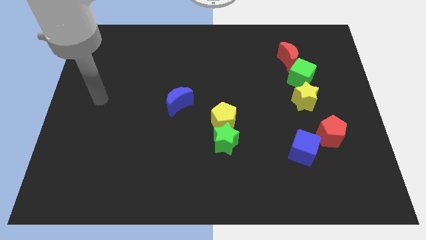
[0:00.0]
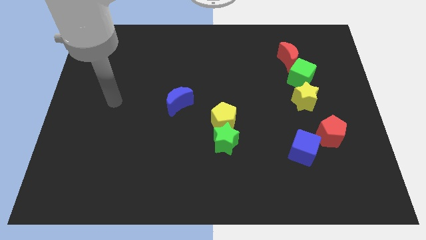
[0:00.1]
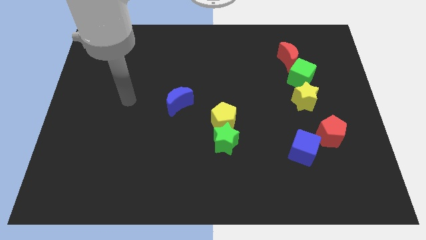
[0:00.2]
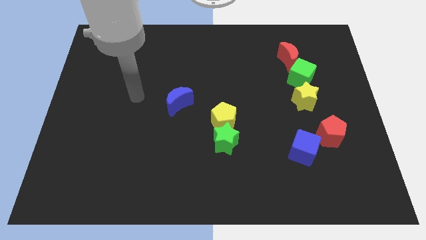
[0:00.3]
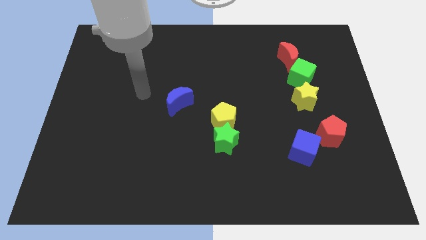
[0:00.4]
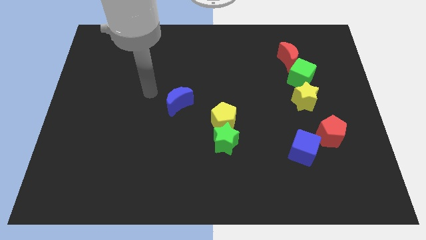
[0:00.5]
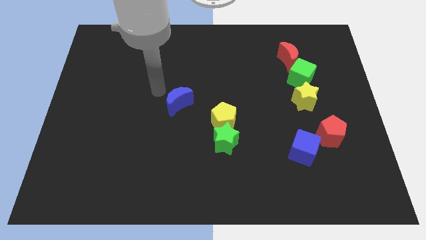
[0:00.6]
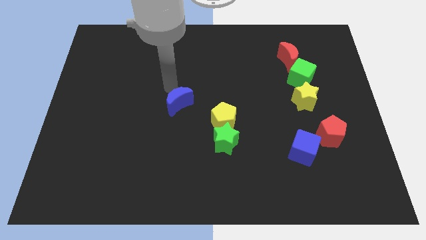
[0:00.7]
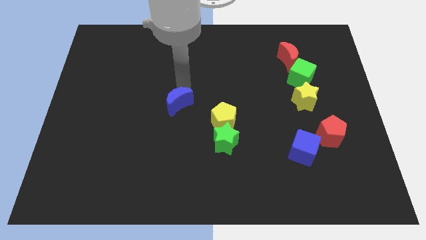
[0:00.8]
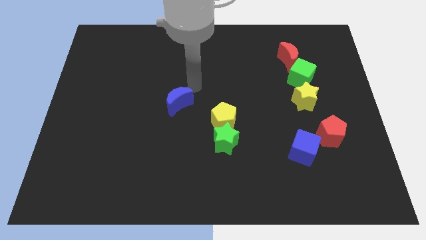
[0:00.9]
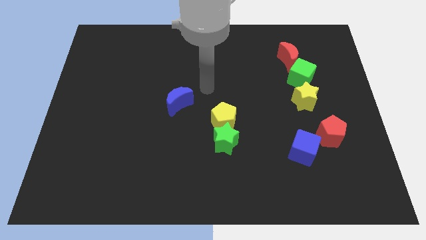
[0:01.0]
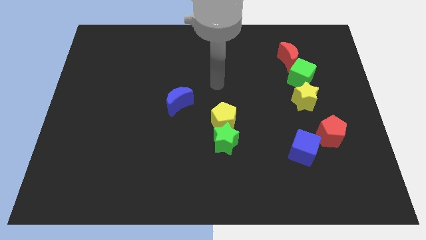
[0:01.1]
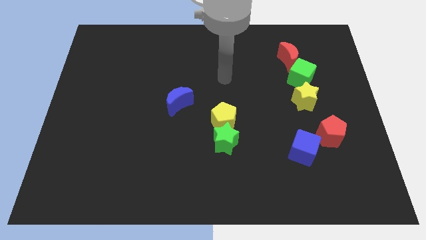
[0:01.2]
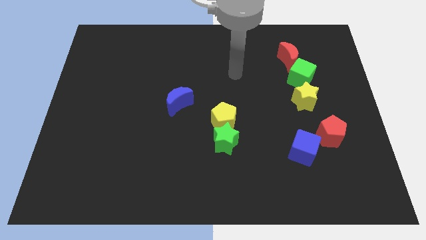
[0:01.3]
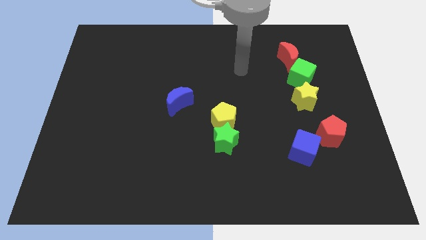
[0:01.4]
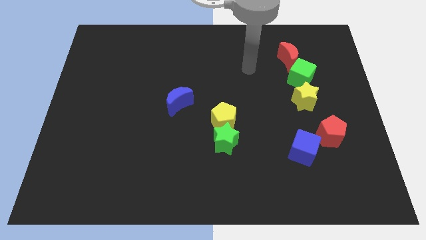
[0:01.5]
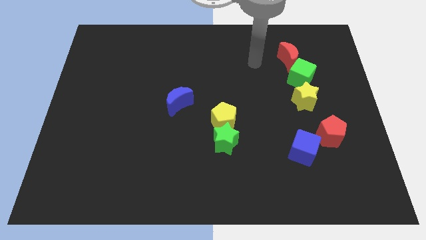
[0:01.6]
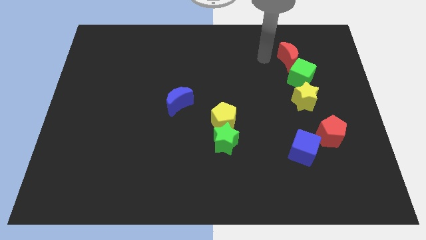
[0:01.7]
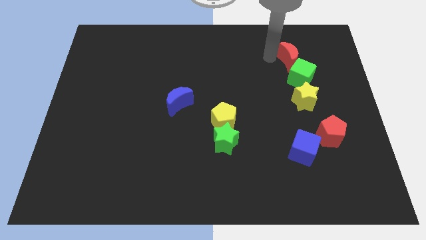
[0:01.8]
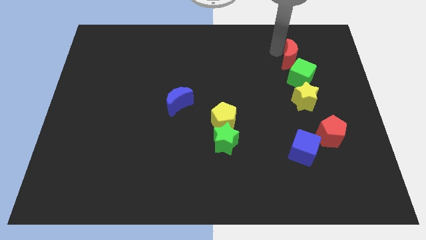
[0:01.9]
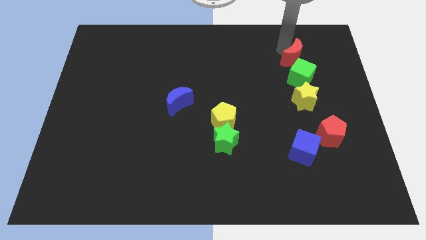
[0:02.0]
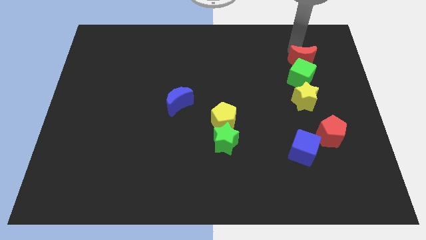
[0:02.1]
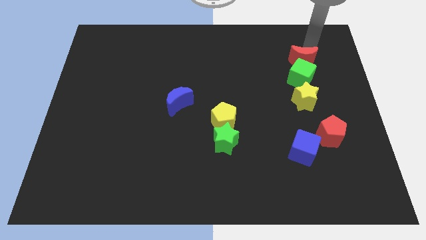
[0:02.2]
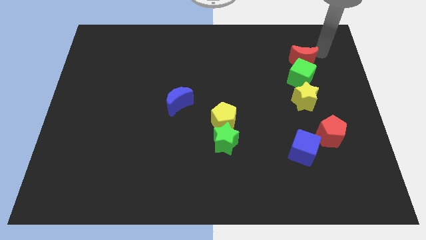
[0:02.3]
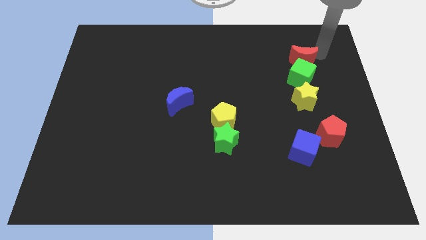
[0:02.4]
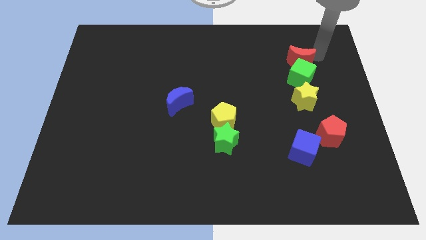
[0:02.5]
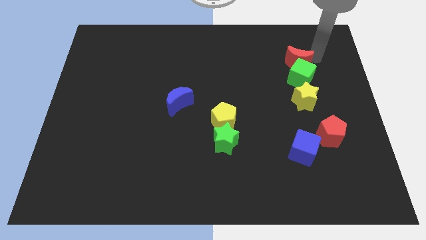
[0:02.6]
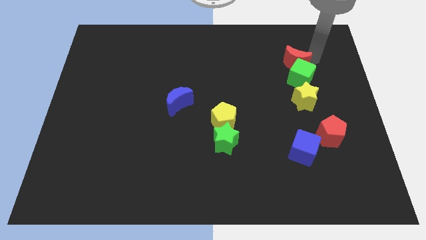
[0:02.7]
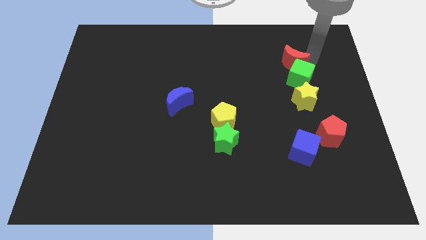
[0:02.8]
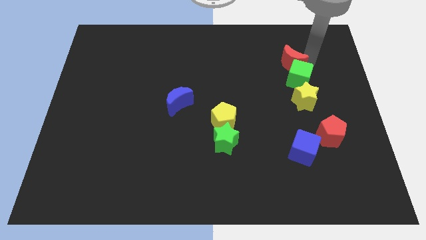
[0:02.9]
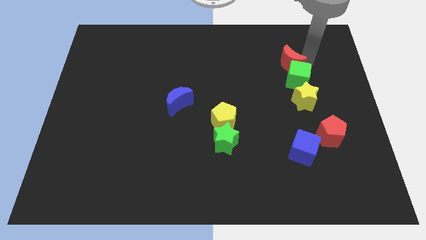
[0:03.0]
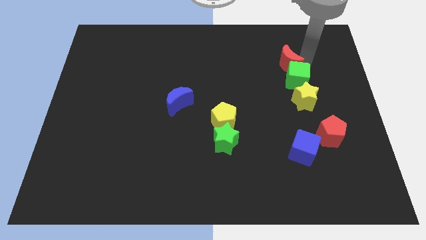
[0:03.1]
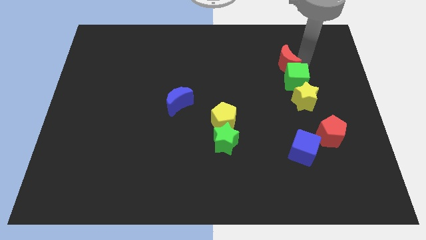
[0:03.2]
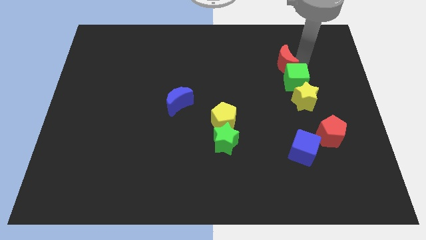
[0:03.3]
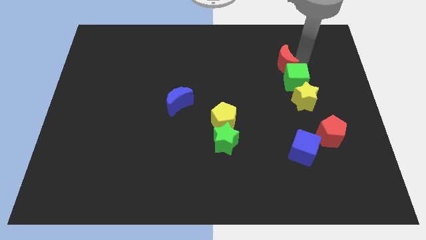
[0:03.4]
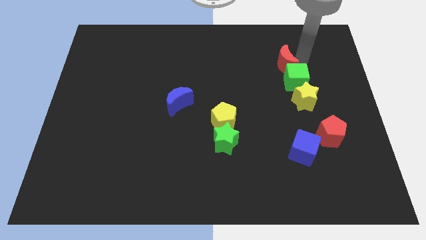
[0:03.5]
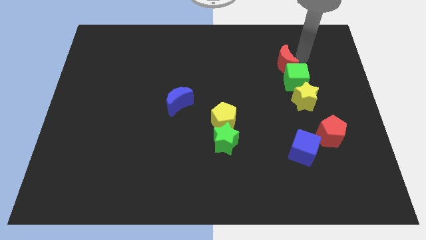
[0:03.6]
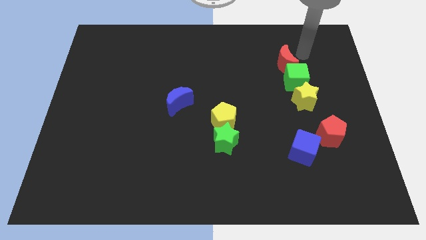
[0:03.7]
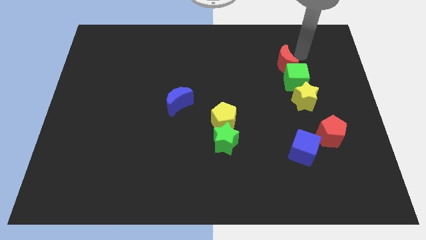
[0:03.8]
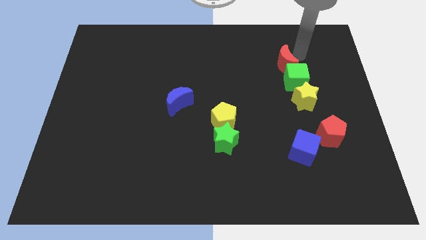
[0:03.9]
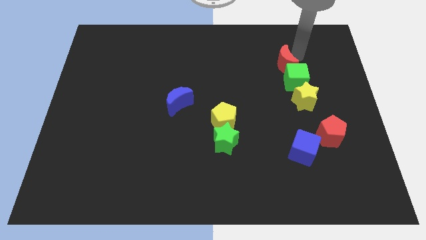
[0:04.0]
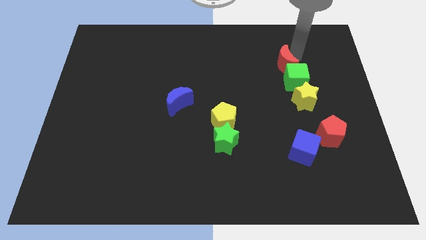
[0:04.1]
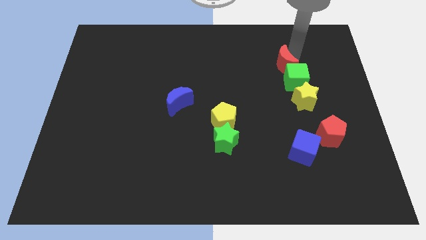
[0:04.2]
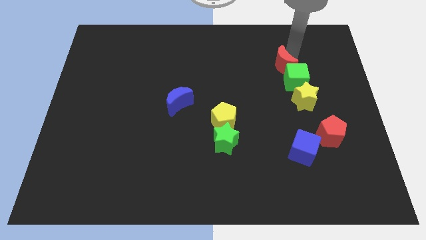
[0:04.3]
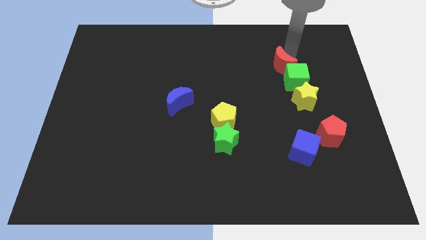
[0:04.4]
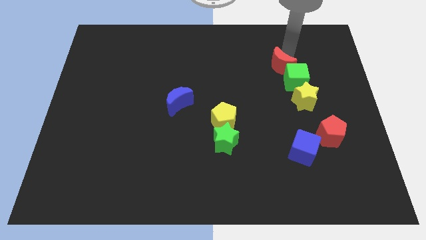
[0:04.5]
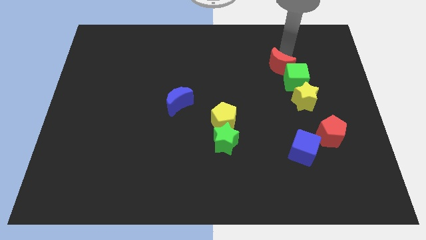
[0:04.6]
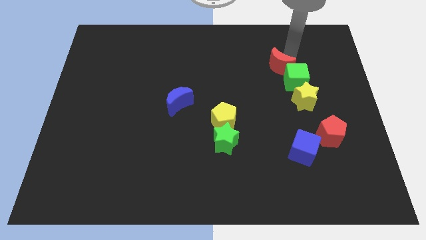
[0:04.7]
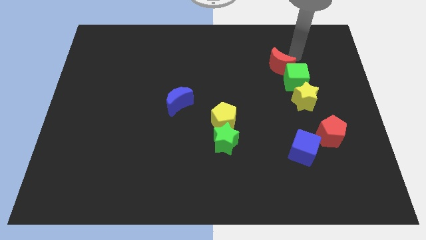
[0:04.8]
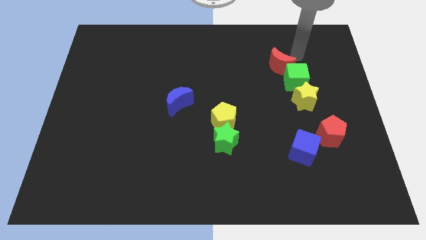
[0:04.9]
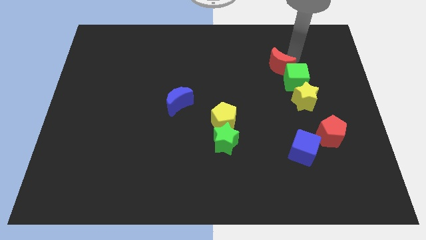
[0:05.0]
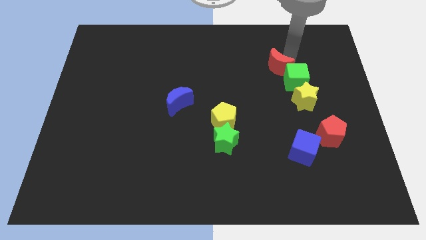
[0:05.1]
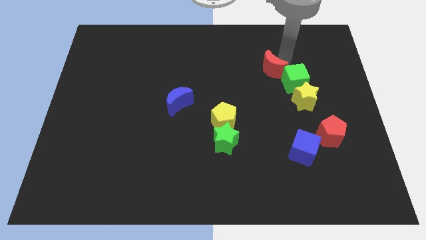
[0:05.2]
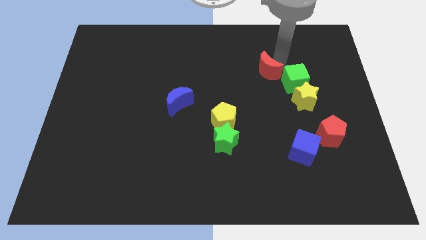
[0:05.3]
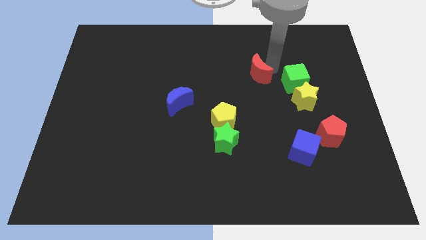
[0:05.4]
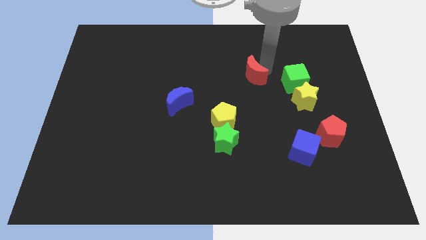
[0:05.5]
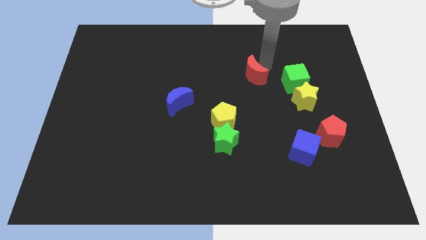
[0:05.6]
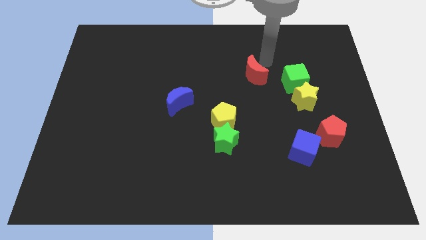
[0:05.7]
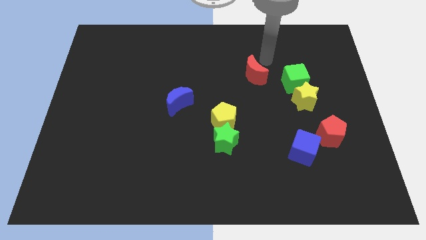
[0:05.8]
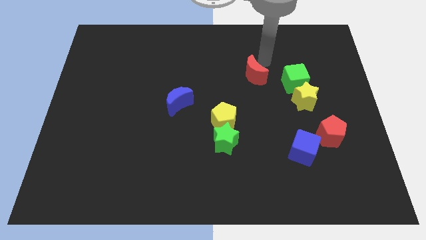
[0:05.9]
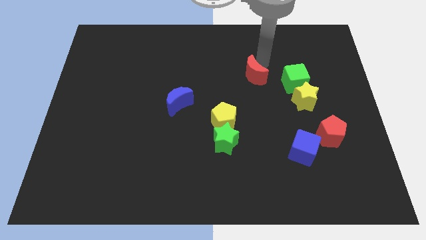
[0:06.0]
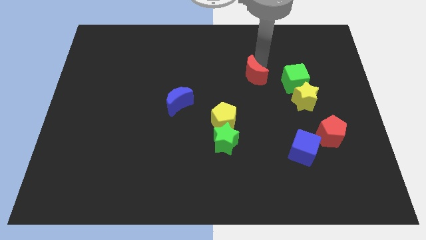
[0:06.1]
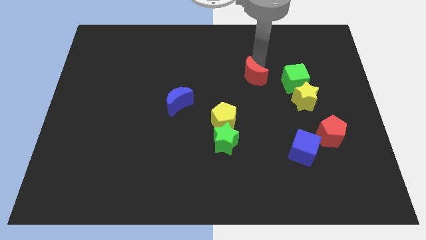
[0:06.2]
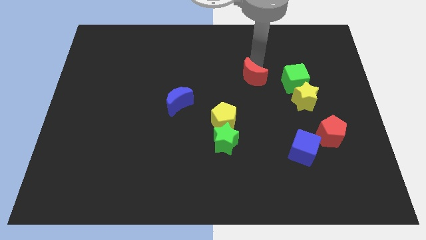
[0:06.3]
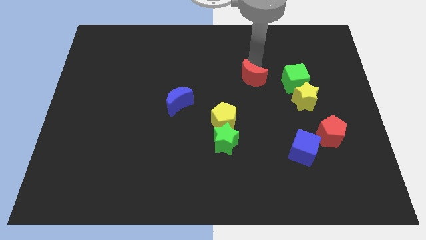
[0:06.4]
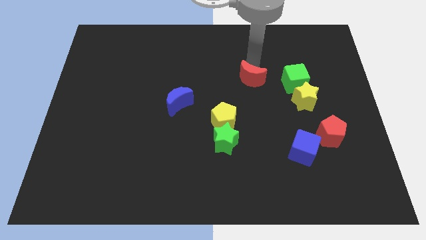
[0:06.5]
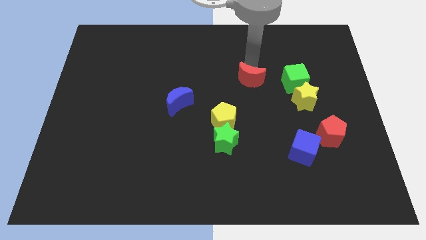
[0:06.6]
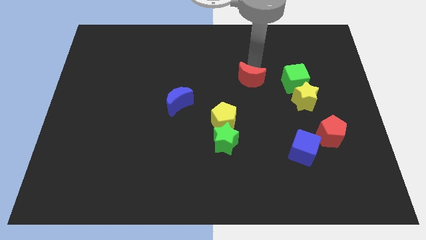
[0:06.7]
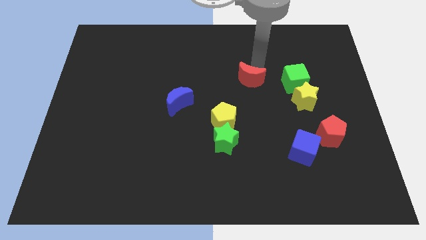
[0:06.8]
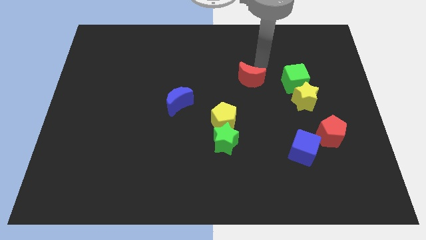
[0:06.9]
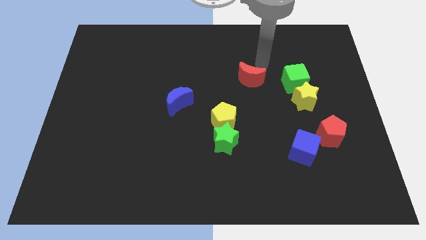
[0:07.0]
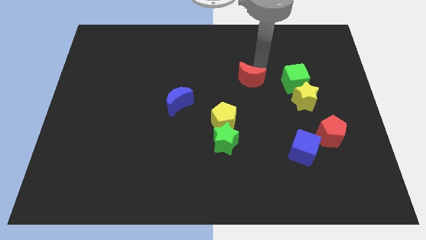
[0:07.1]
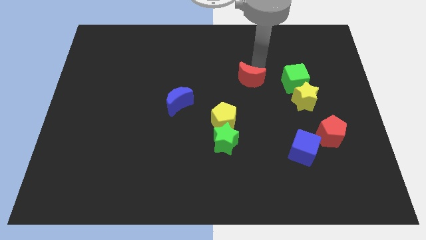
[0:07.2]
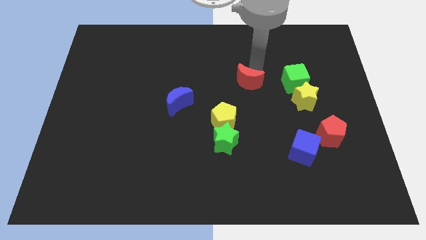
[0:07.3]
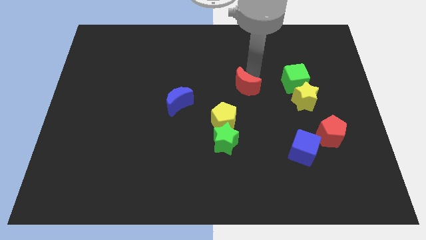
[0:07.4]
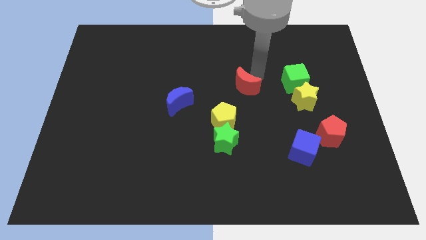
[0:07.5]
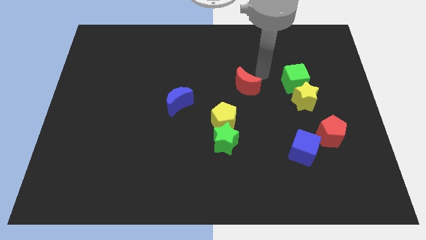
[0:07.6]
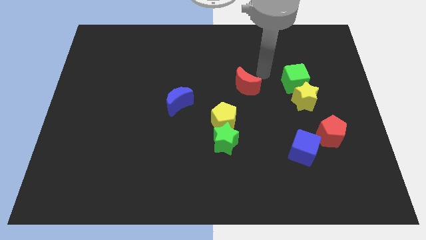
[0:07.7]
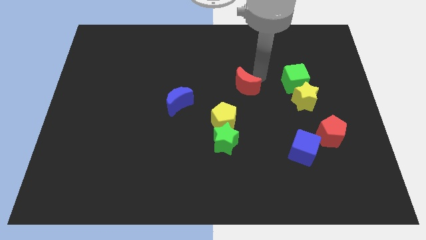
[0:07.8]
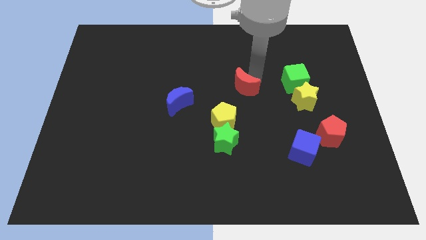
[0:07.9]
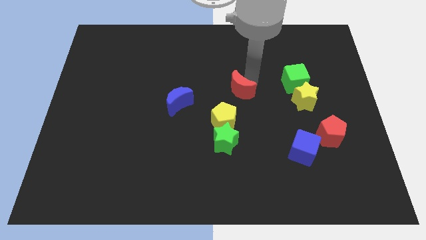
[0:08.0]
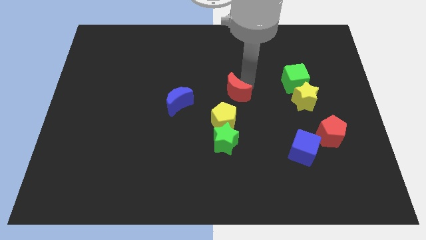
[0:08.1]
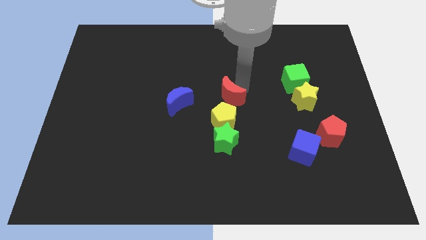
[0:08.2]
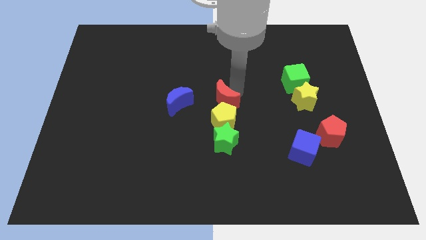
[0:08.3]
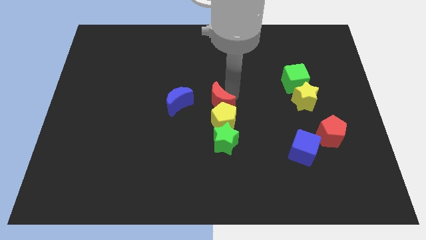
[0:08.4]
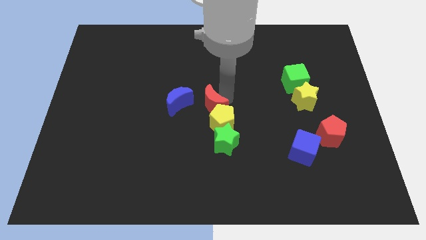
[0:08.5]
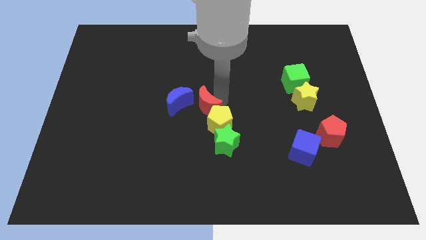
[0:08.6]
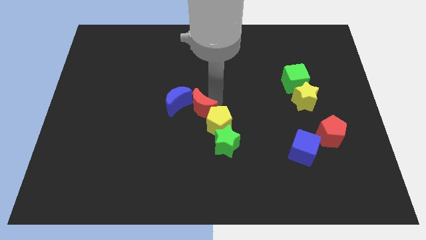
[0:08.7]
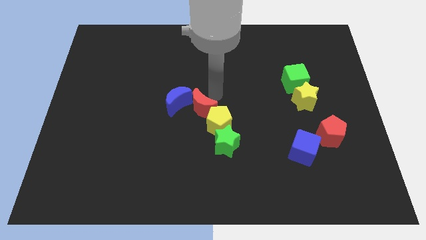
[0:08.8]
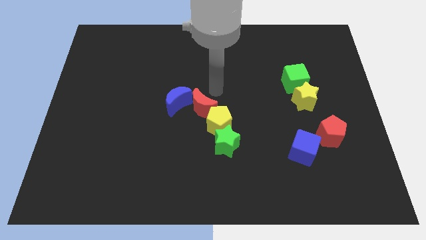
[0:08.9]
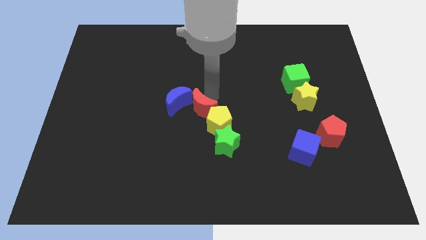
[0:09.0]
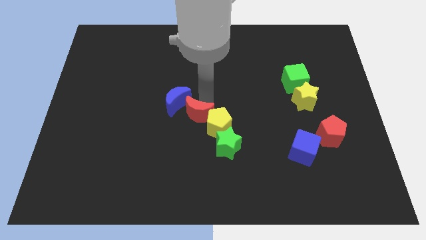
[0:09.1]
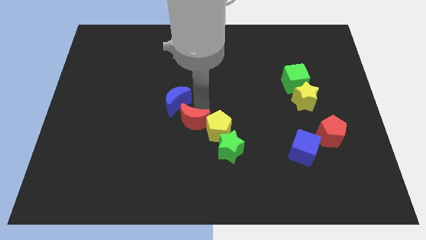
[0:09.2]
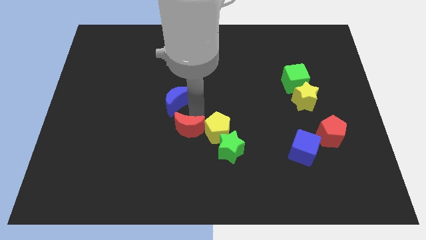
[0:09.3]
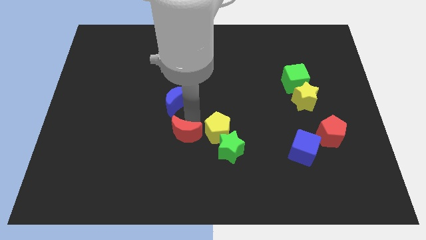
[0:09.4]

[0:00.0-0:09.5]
slide the red moon left of the green star
